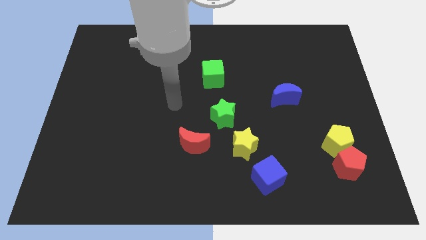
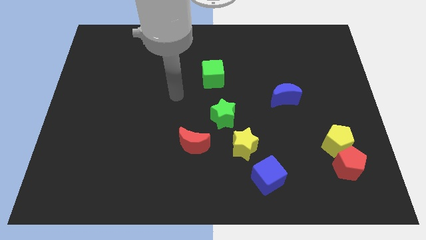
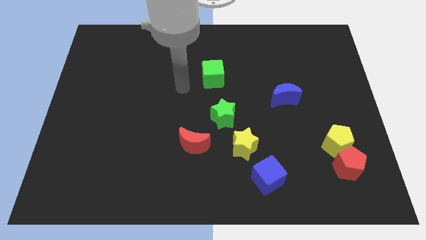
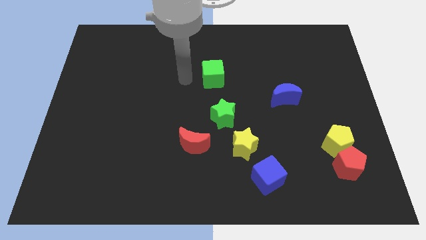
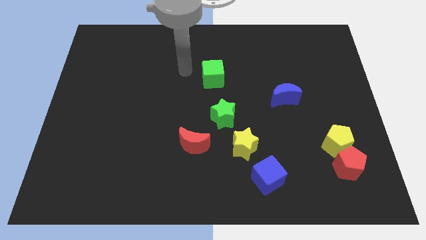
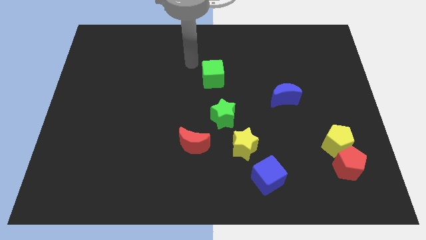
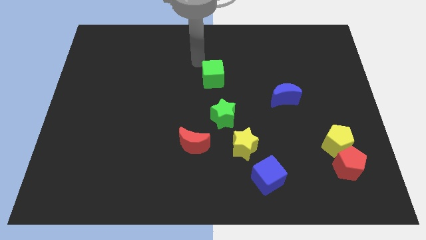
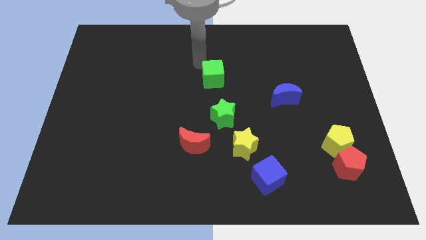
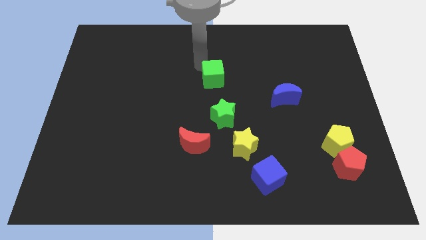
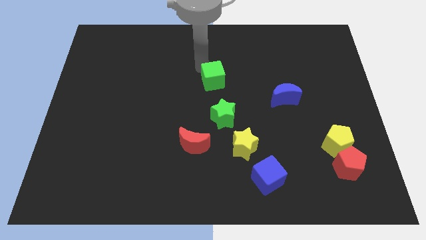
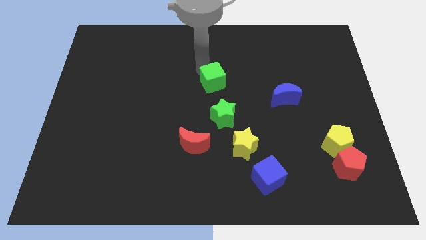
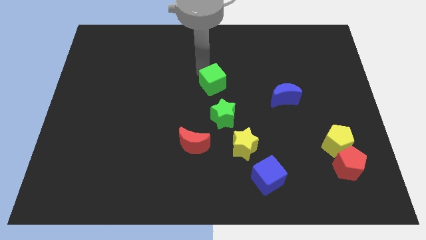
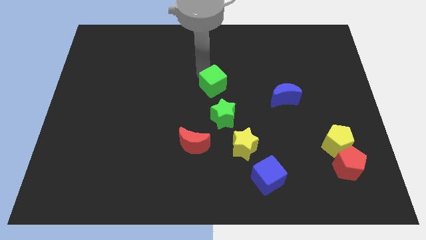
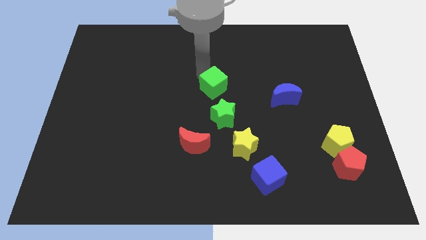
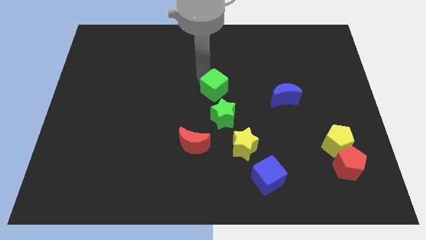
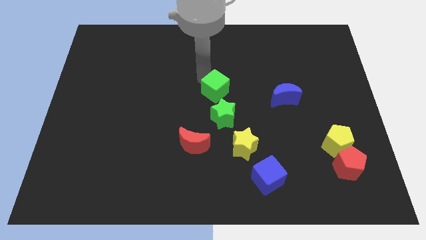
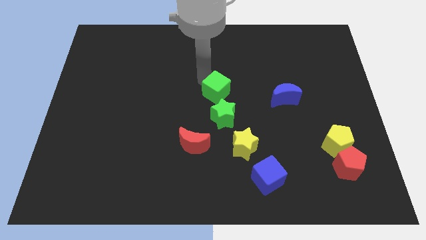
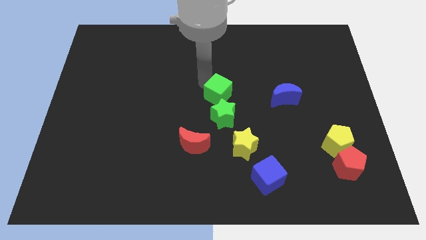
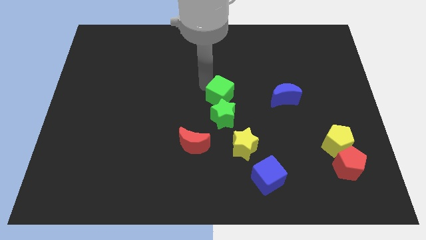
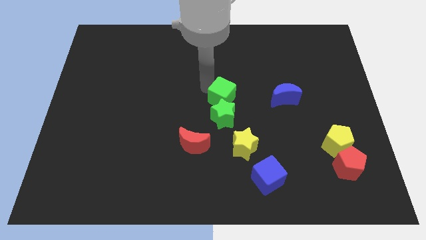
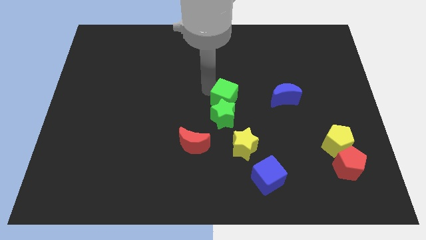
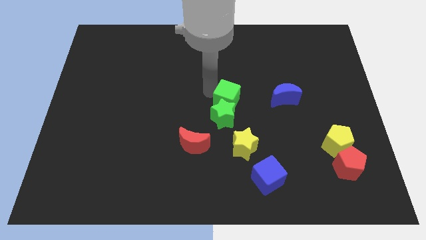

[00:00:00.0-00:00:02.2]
move the green cube a little bit downwards and right

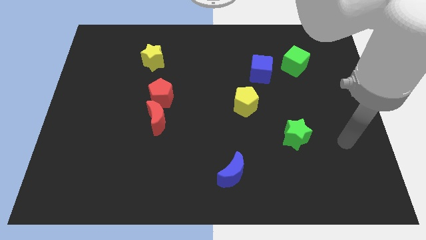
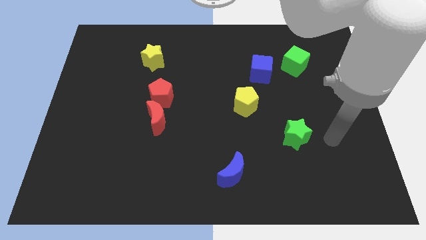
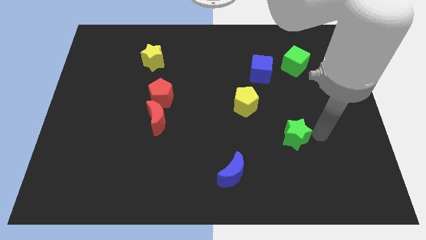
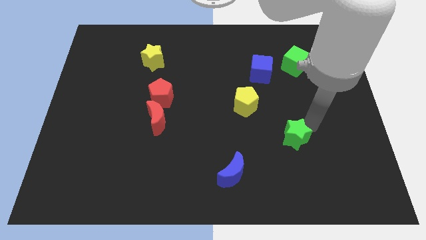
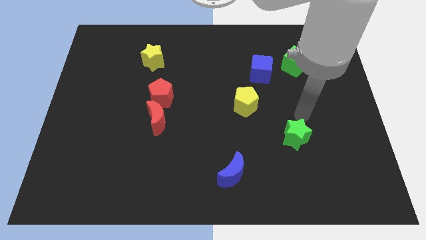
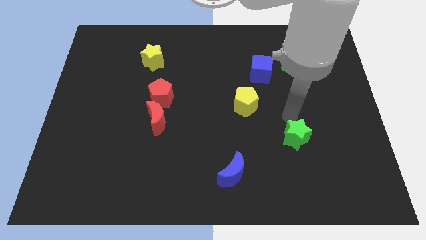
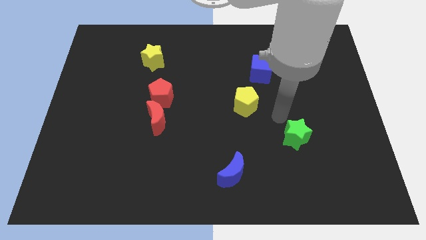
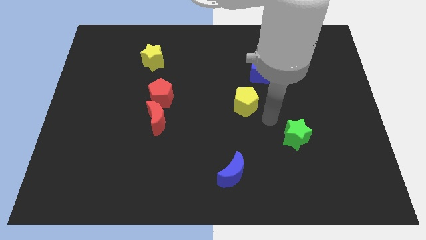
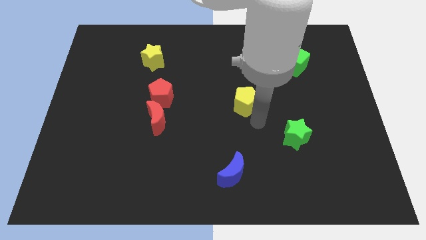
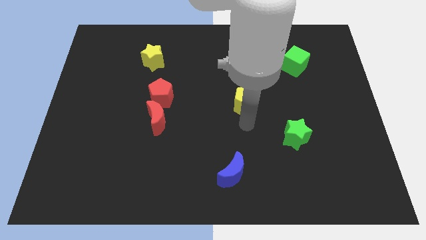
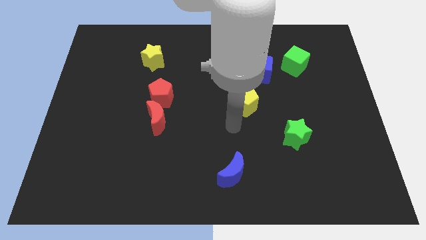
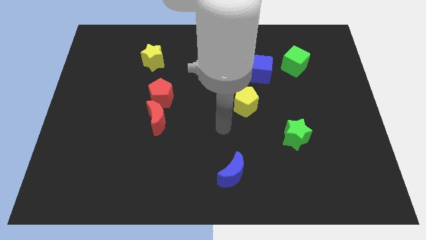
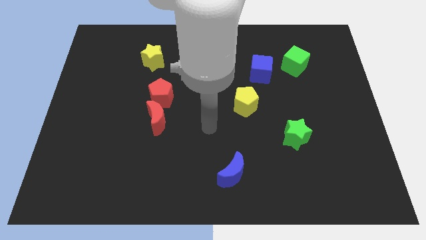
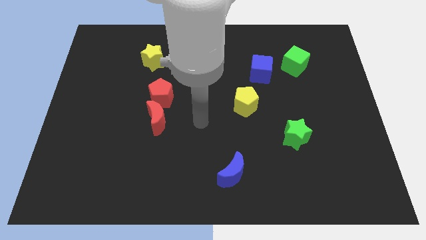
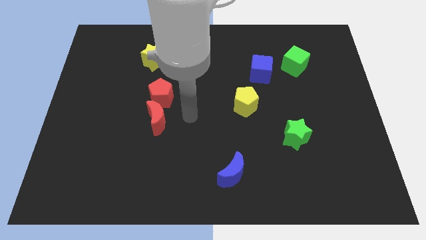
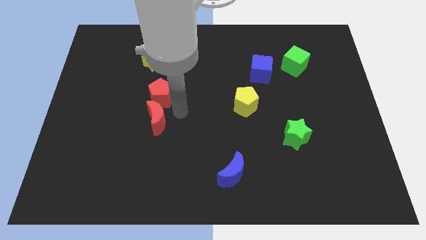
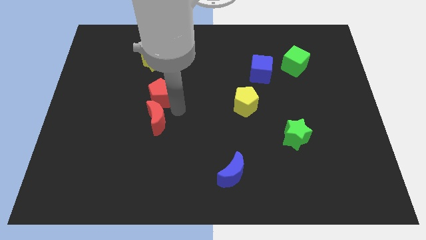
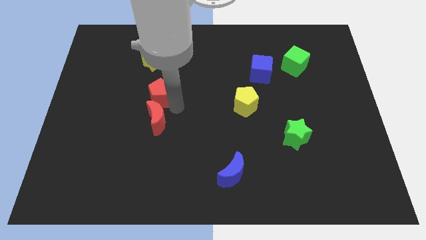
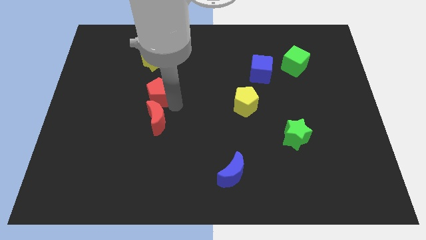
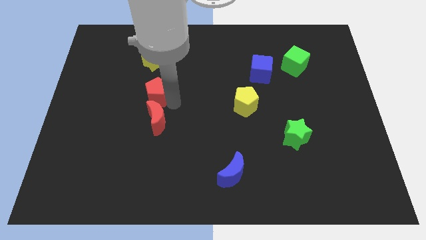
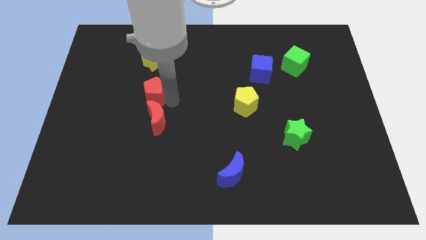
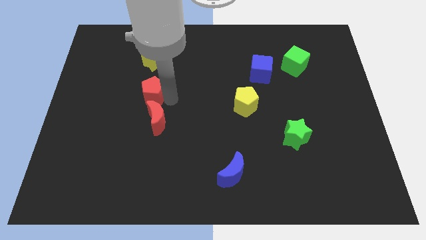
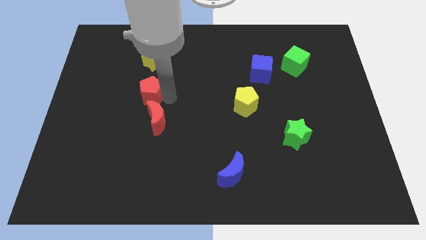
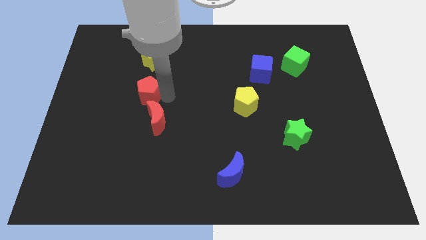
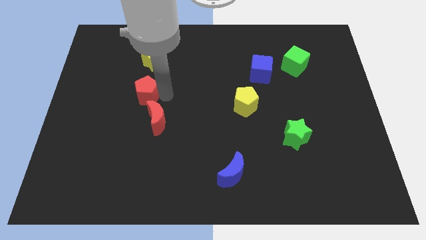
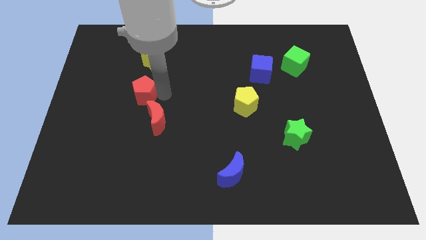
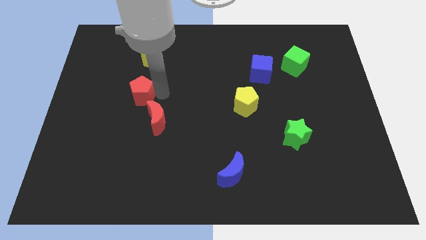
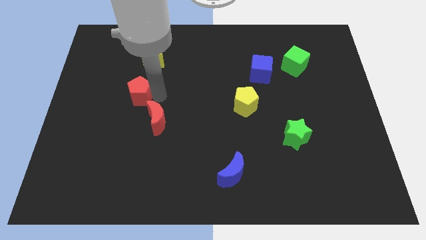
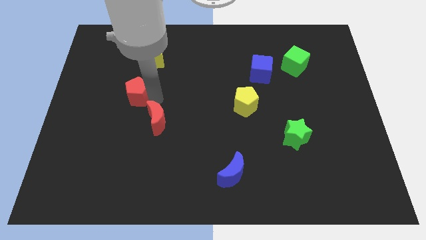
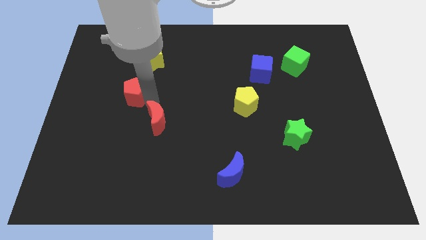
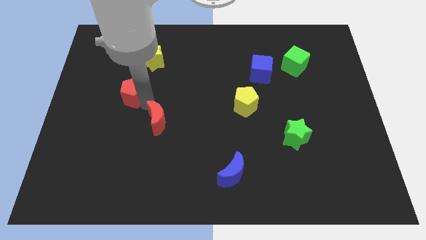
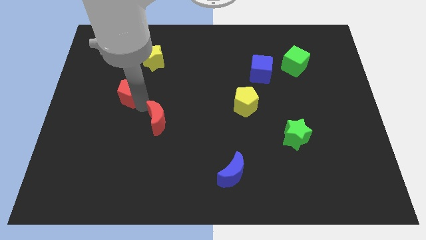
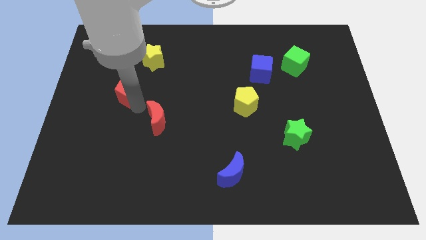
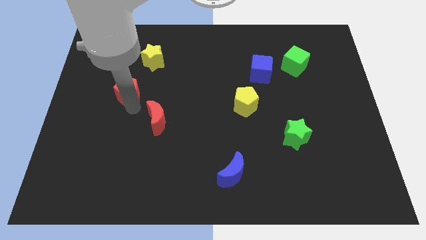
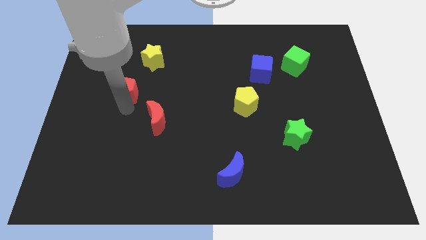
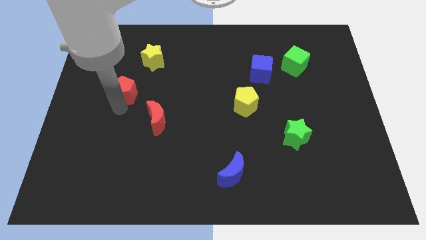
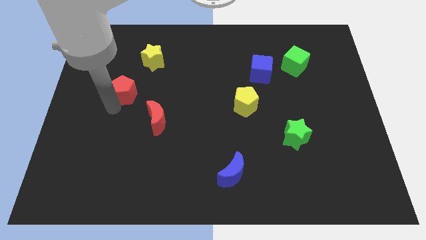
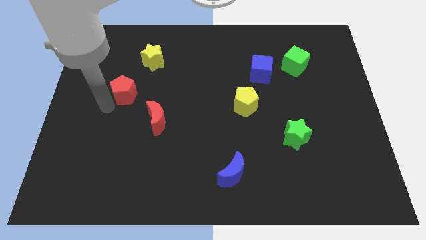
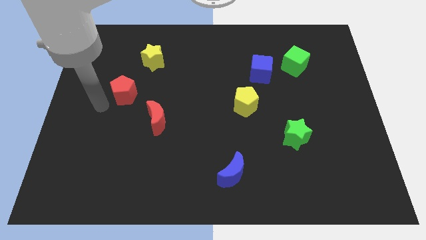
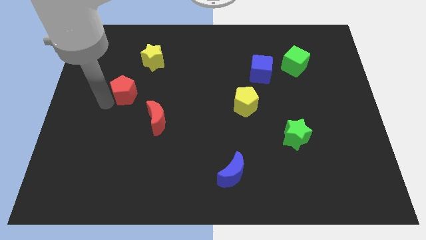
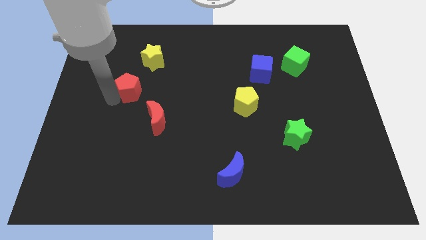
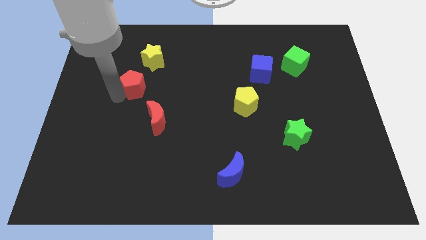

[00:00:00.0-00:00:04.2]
move the red pentagon a little bit upwards and left

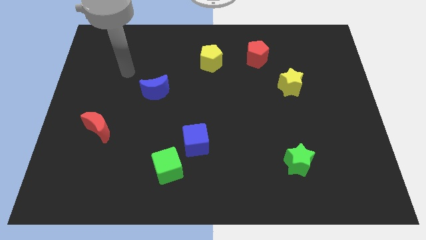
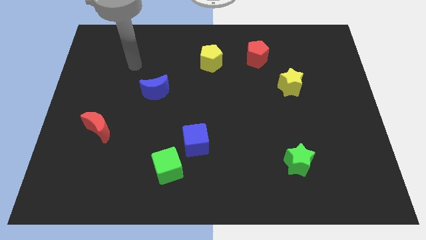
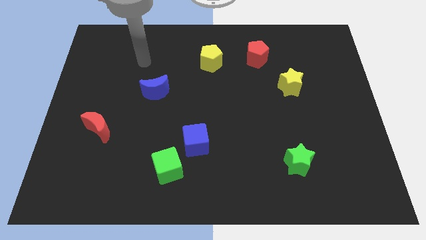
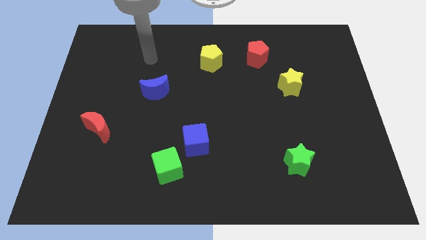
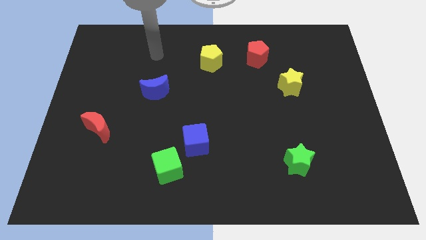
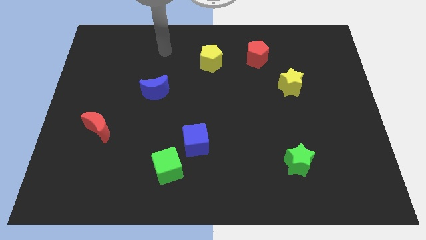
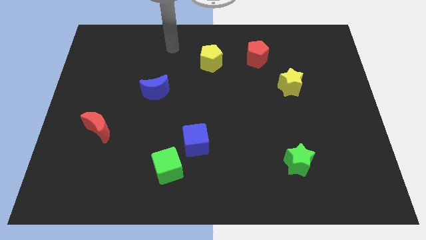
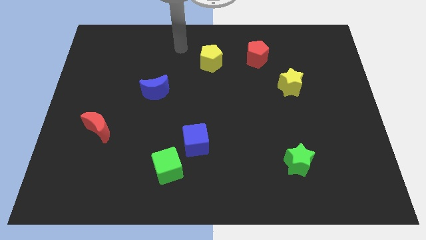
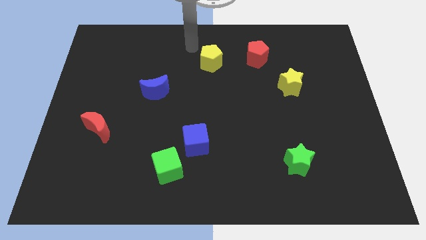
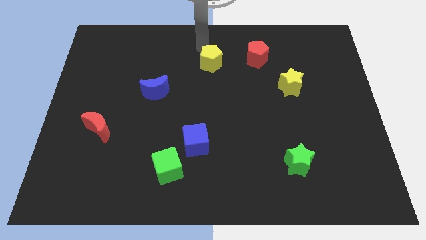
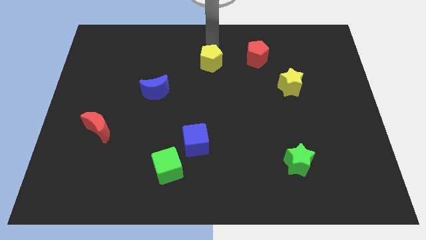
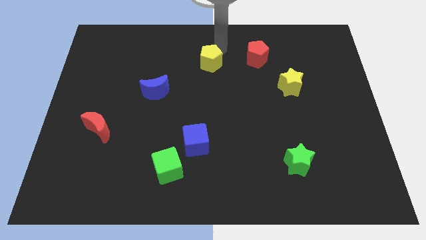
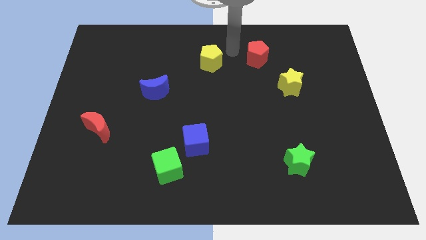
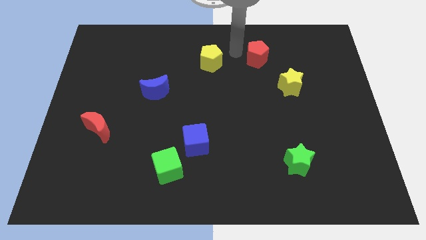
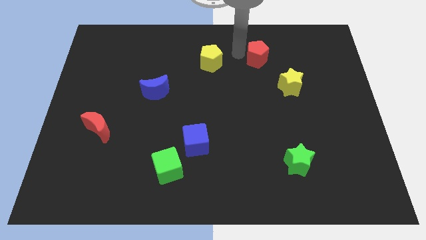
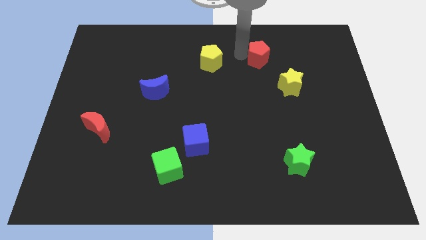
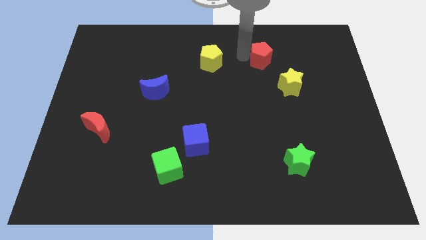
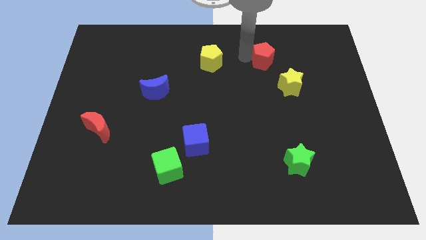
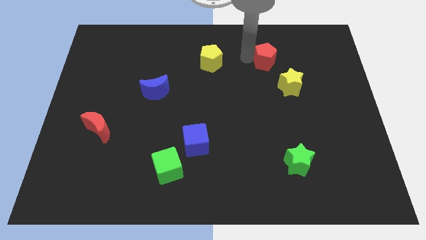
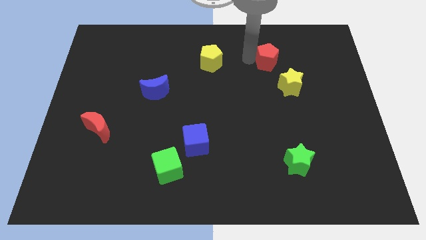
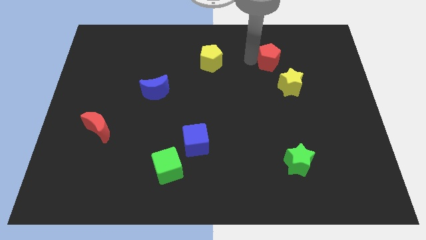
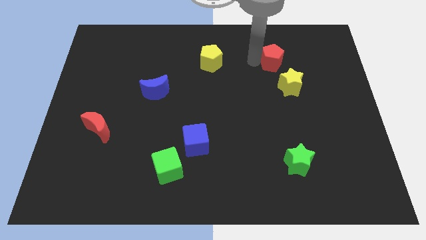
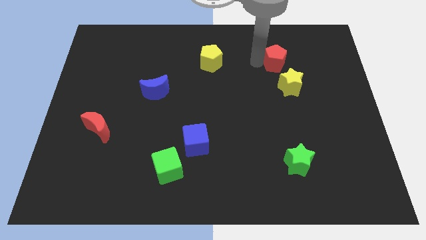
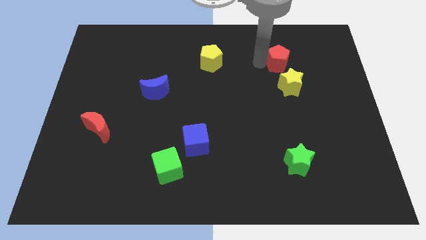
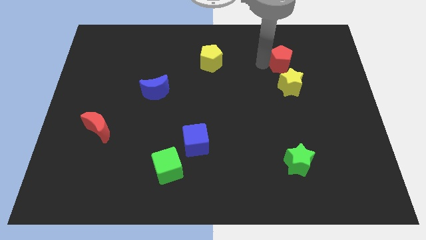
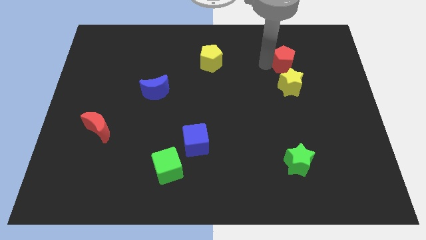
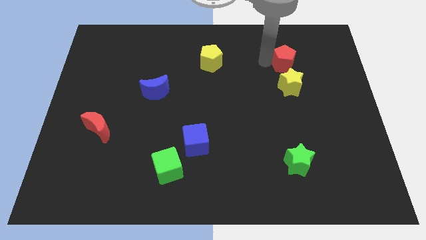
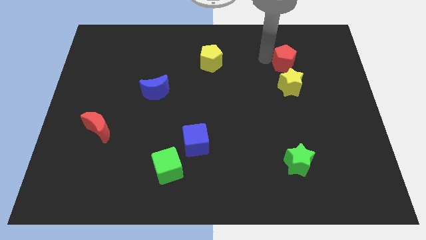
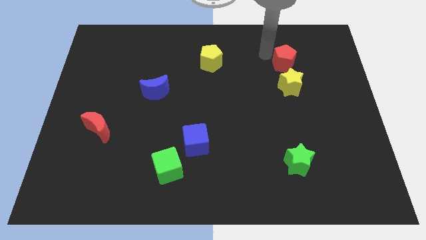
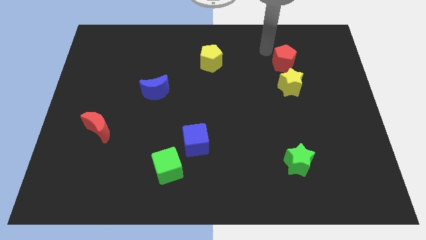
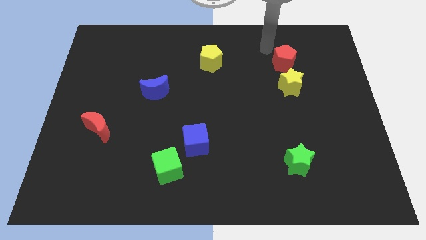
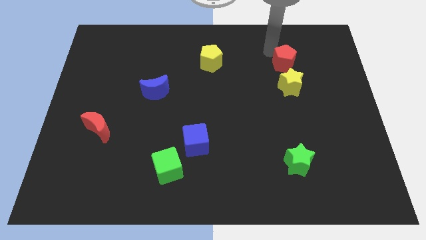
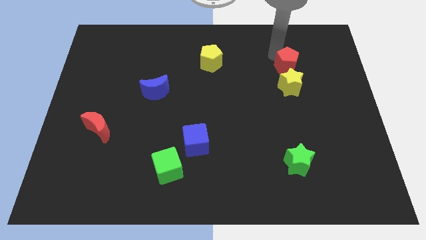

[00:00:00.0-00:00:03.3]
push the red pentagon slightly down and then to the right
